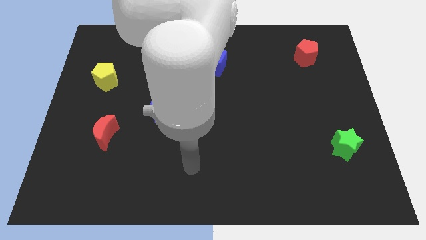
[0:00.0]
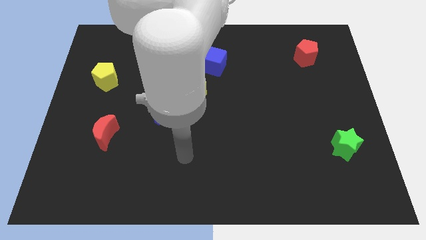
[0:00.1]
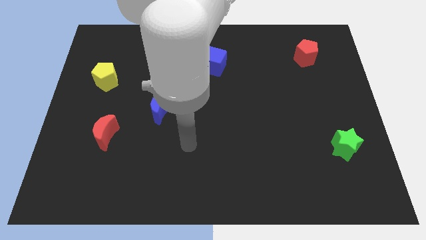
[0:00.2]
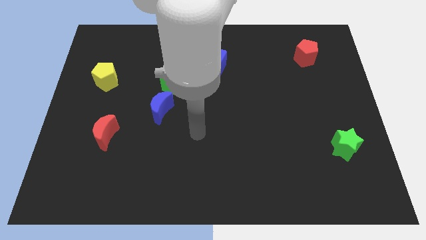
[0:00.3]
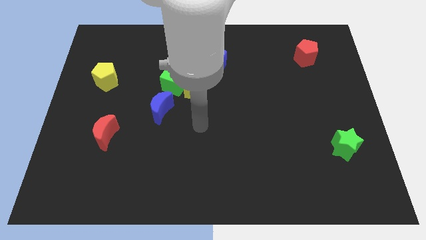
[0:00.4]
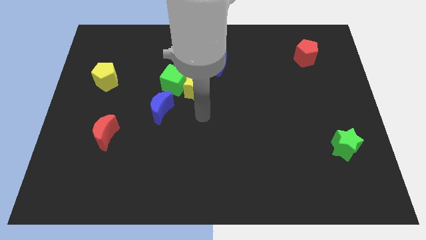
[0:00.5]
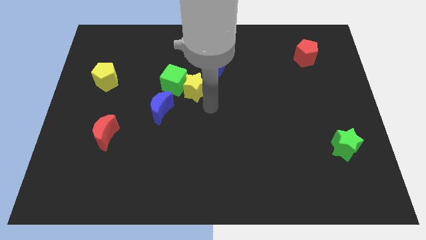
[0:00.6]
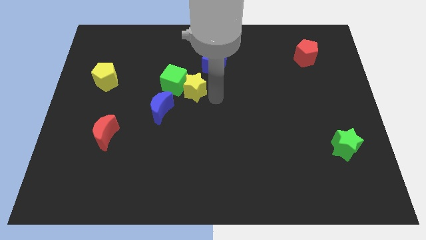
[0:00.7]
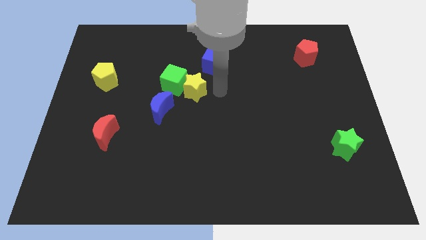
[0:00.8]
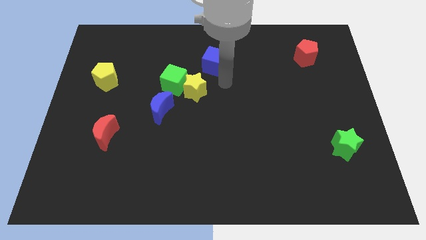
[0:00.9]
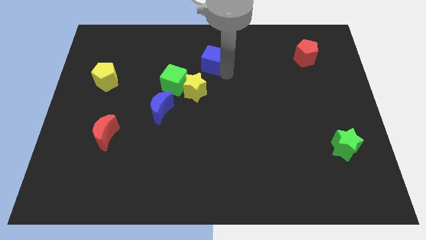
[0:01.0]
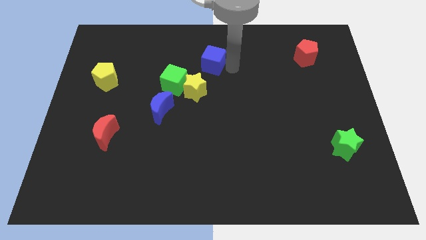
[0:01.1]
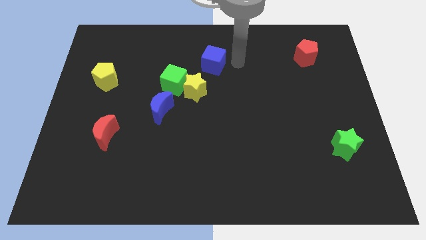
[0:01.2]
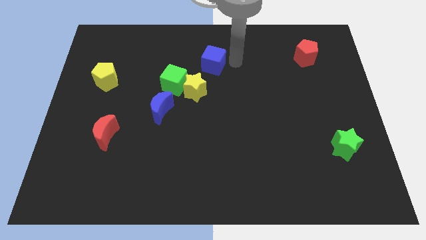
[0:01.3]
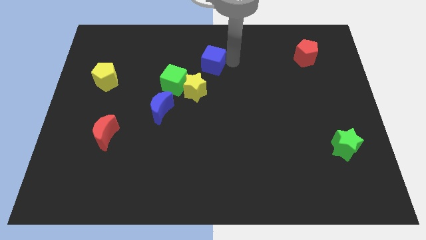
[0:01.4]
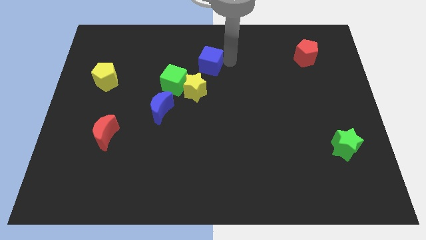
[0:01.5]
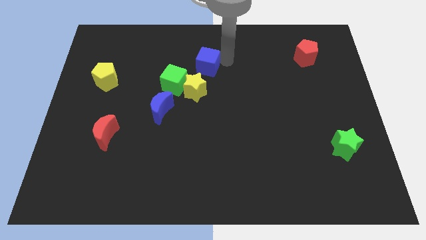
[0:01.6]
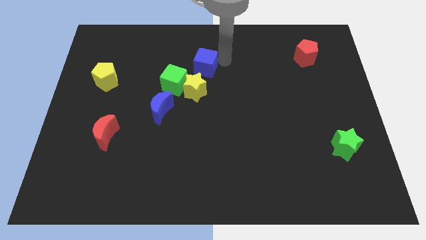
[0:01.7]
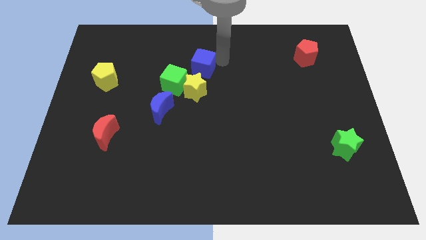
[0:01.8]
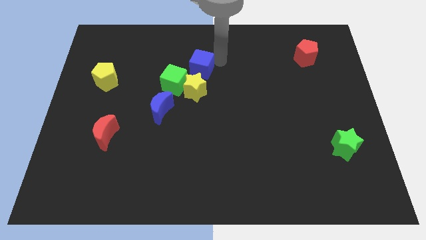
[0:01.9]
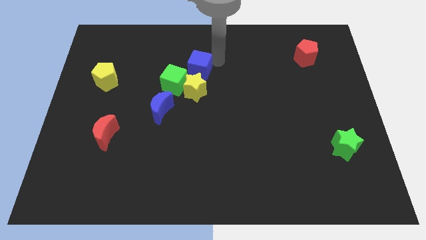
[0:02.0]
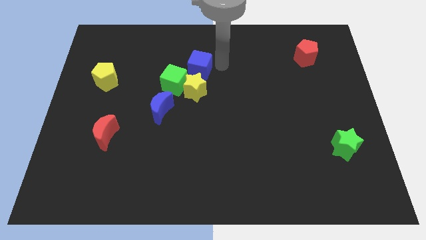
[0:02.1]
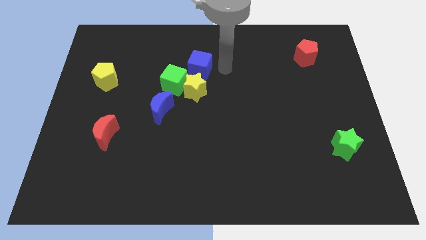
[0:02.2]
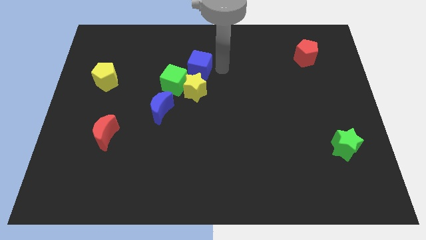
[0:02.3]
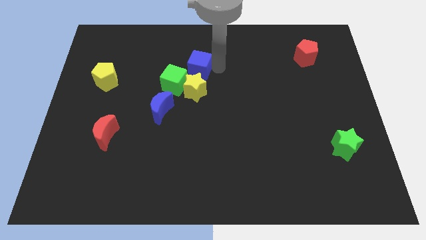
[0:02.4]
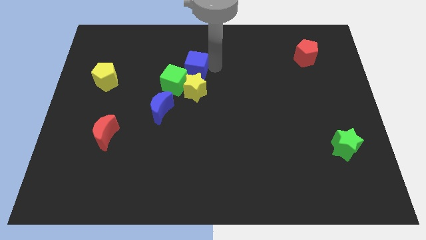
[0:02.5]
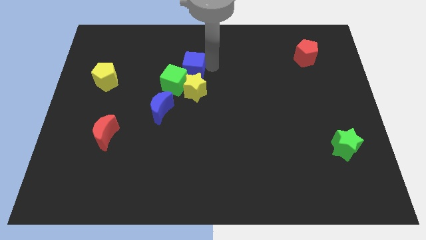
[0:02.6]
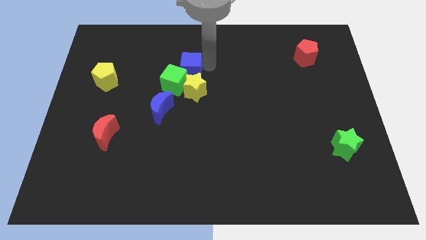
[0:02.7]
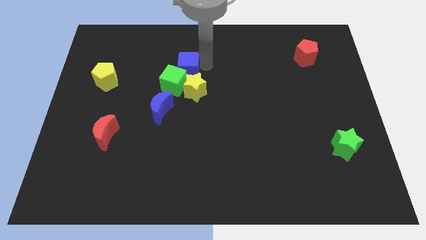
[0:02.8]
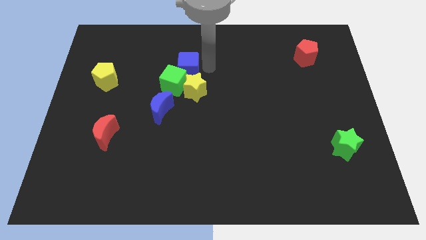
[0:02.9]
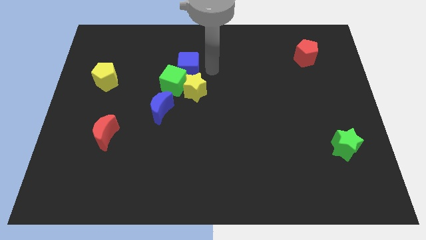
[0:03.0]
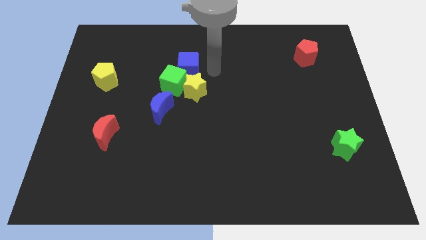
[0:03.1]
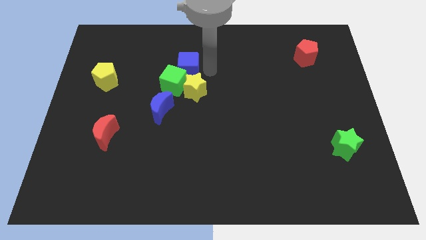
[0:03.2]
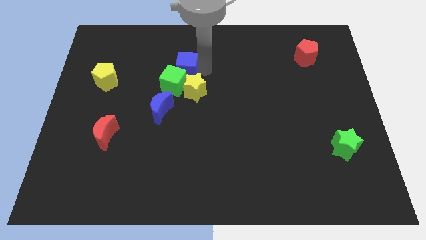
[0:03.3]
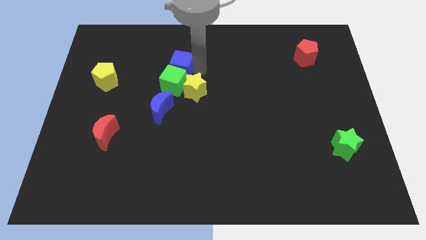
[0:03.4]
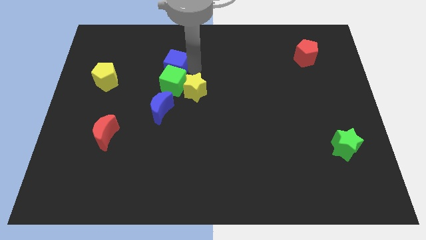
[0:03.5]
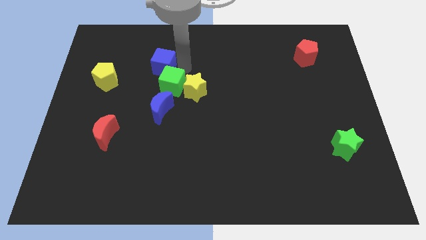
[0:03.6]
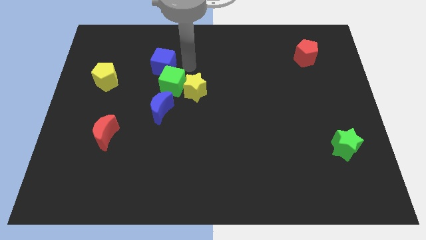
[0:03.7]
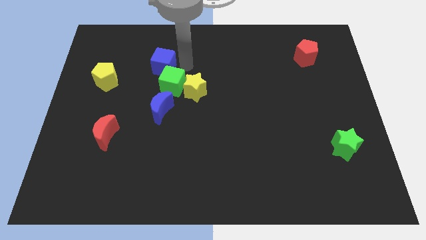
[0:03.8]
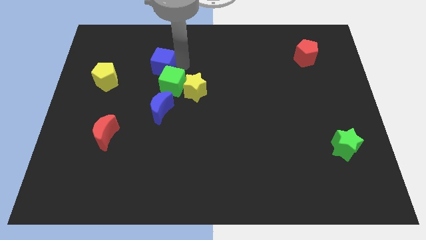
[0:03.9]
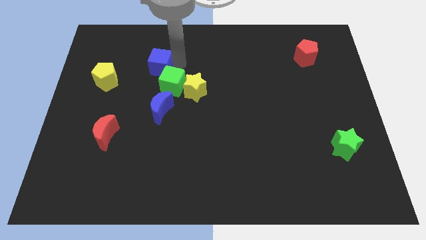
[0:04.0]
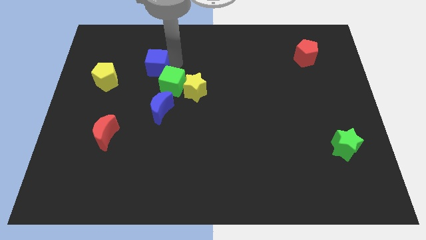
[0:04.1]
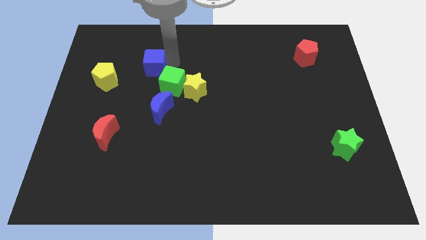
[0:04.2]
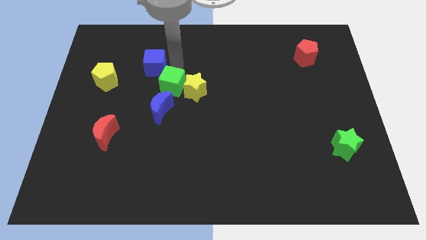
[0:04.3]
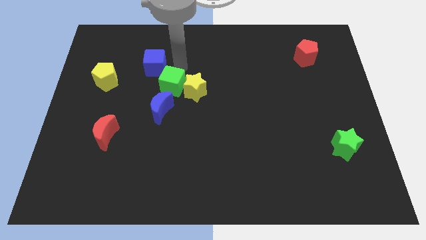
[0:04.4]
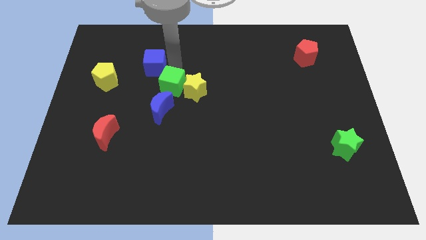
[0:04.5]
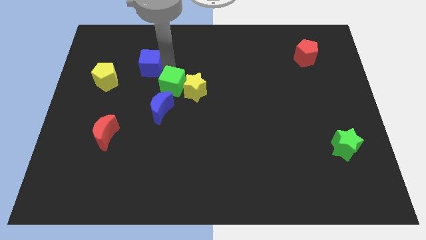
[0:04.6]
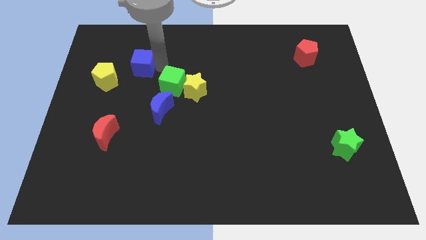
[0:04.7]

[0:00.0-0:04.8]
put the blue cube to the top right side of the yellow pentagon

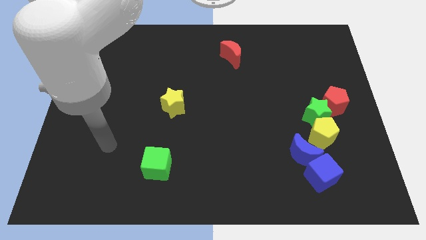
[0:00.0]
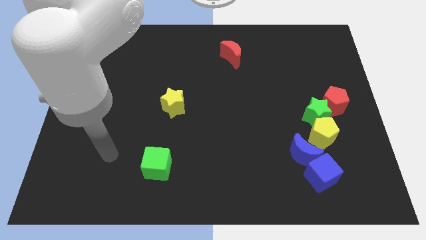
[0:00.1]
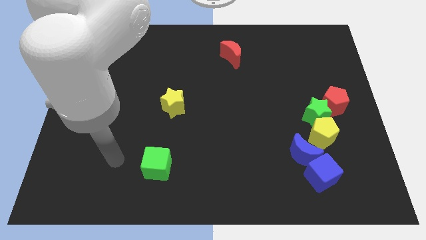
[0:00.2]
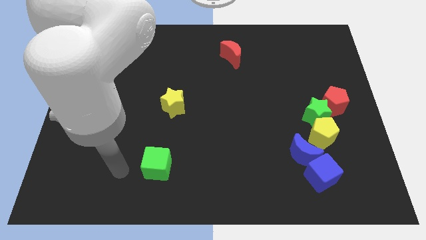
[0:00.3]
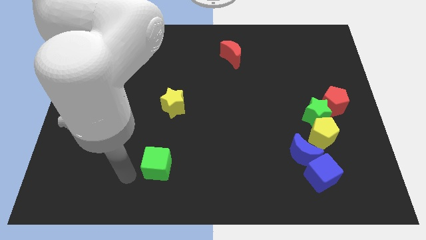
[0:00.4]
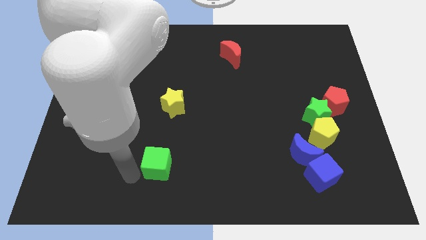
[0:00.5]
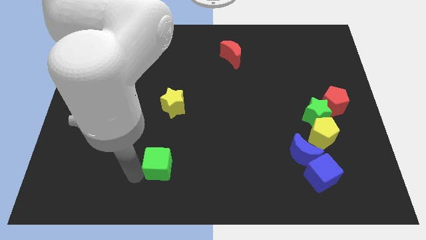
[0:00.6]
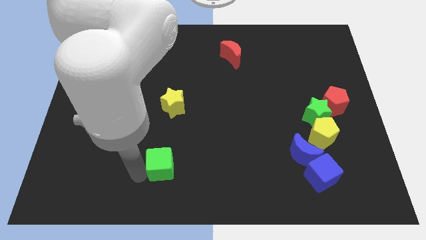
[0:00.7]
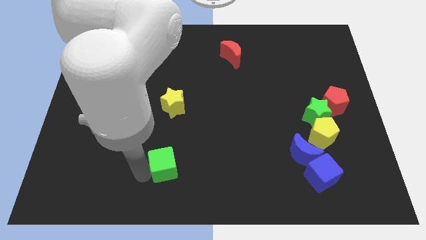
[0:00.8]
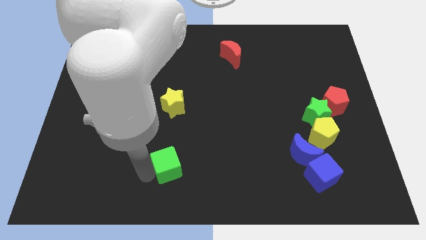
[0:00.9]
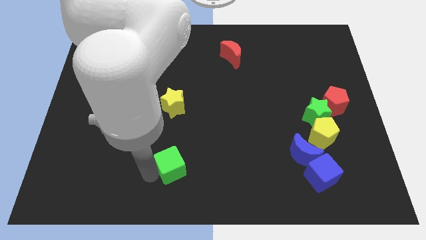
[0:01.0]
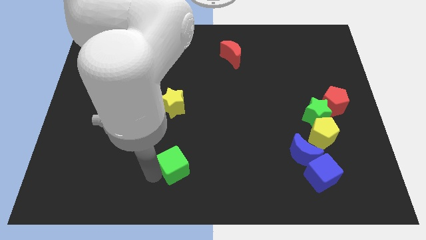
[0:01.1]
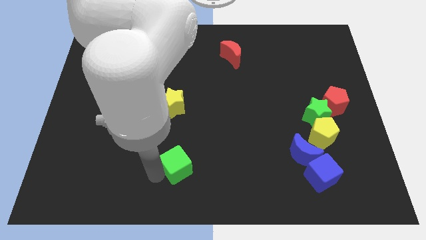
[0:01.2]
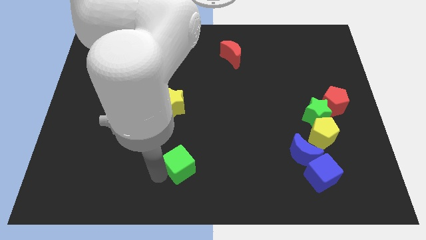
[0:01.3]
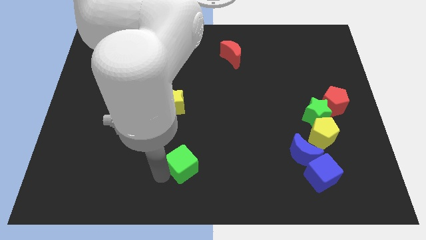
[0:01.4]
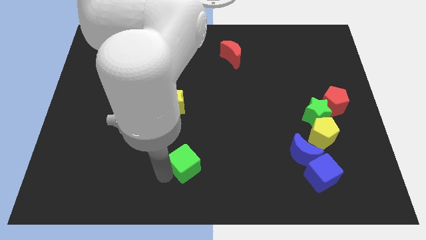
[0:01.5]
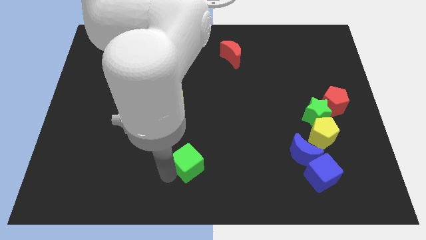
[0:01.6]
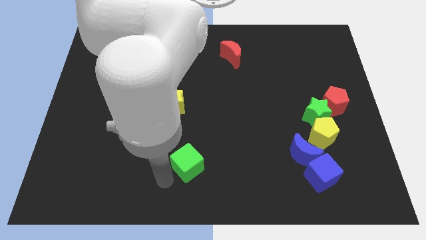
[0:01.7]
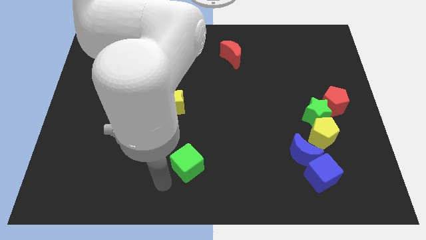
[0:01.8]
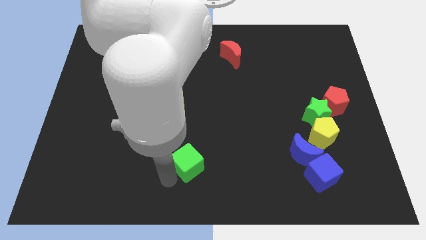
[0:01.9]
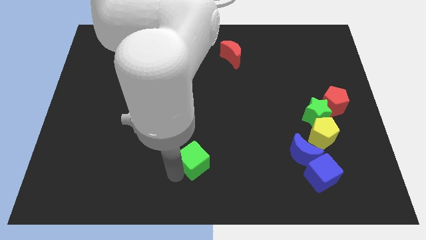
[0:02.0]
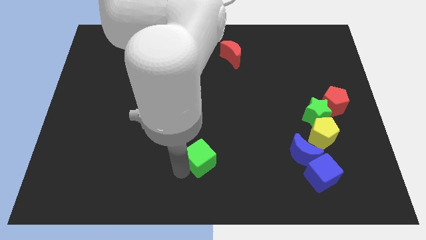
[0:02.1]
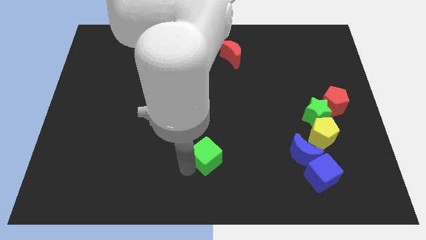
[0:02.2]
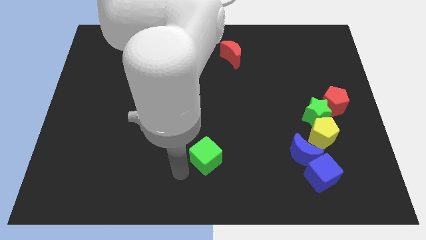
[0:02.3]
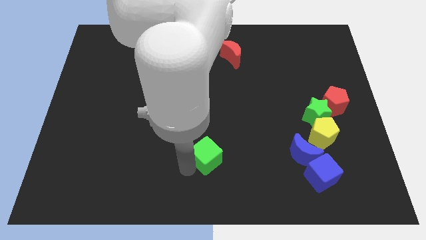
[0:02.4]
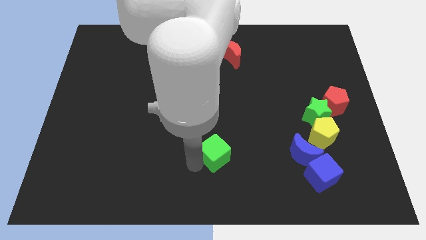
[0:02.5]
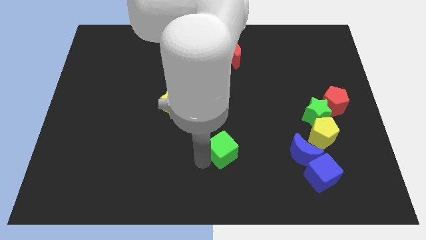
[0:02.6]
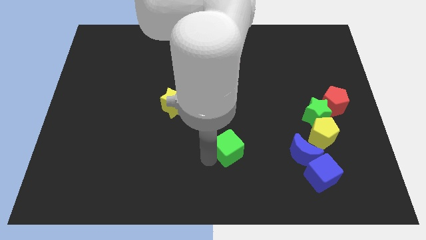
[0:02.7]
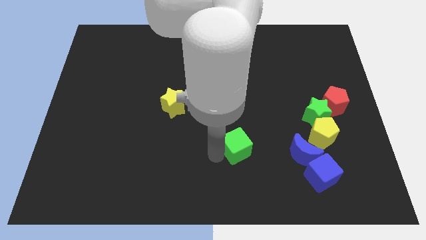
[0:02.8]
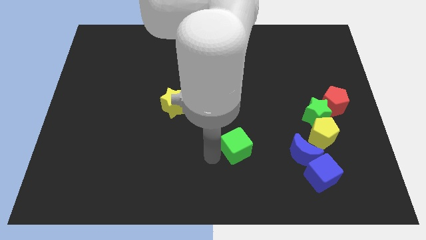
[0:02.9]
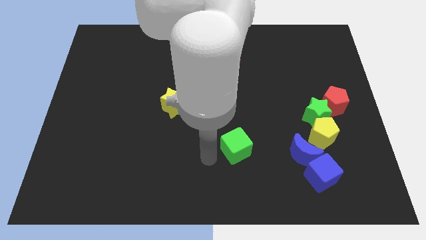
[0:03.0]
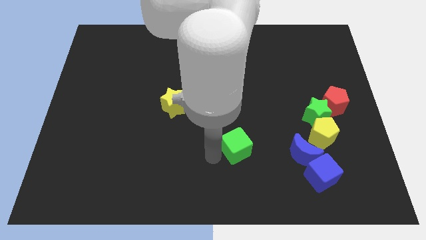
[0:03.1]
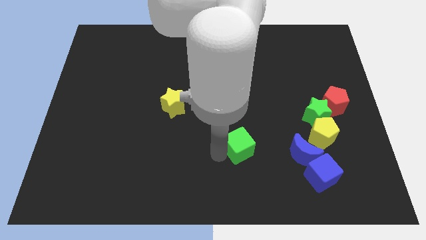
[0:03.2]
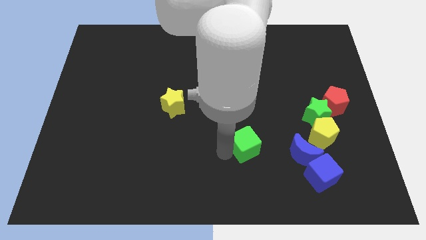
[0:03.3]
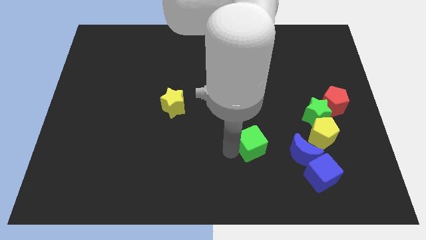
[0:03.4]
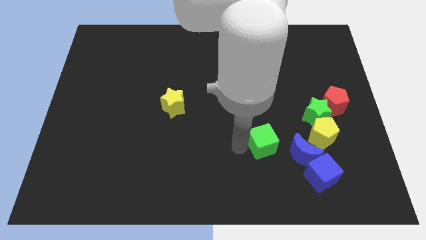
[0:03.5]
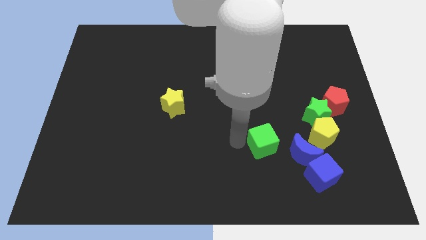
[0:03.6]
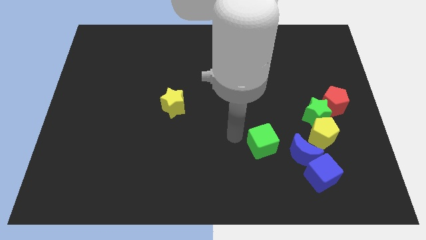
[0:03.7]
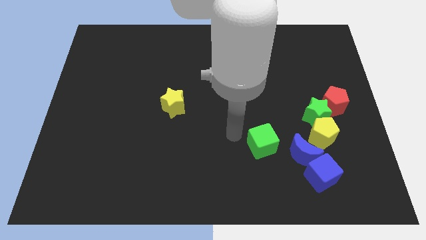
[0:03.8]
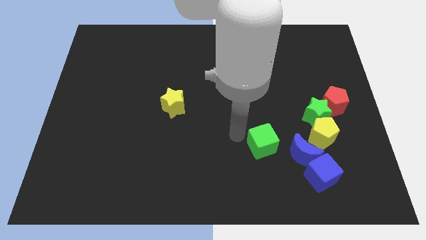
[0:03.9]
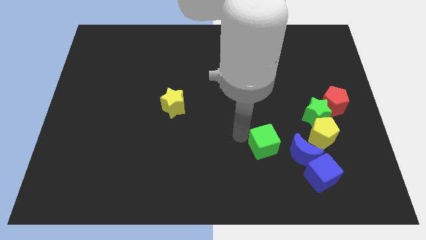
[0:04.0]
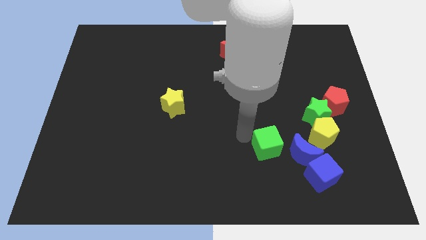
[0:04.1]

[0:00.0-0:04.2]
slide the green cube to the top left of the blue cube
